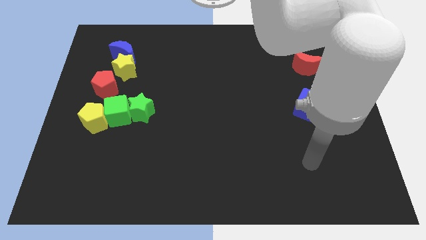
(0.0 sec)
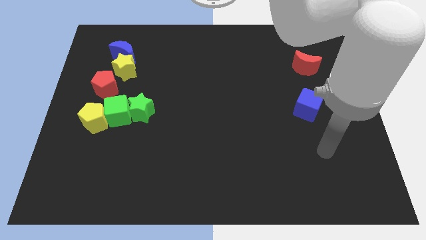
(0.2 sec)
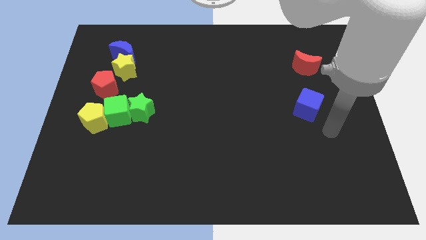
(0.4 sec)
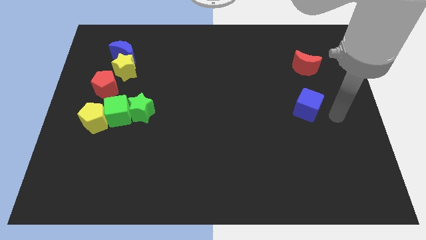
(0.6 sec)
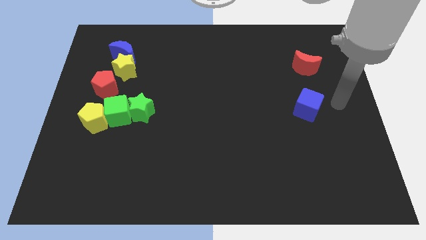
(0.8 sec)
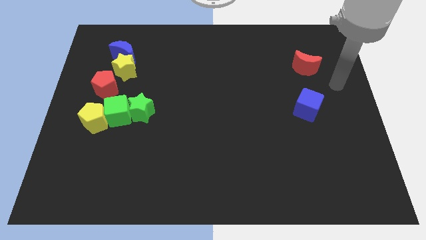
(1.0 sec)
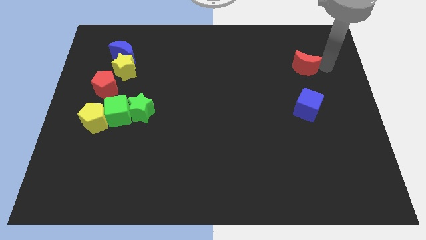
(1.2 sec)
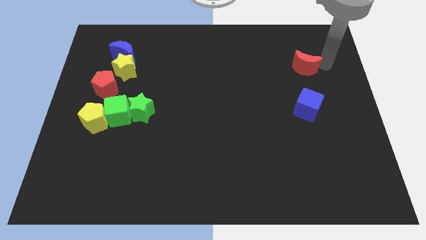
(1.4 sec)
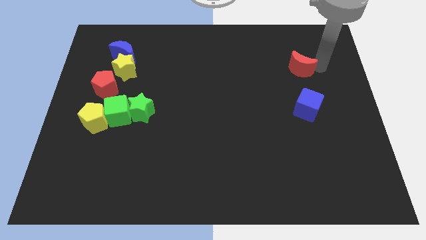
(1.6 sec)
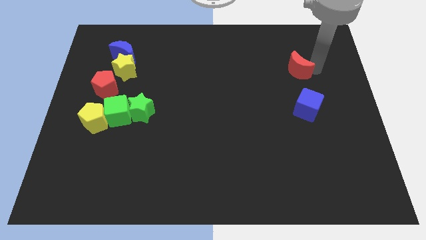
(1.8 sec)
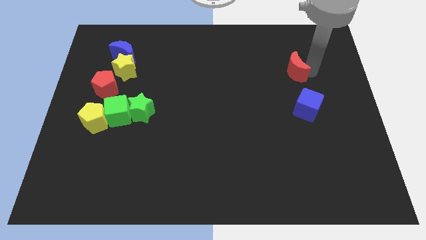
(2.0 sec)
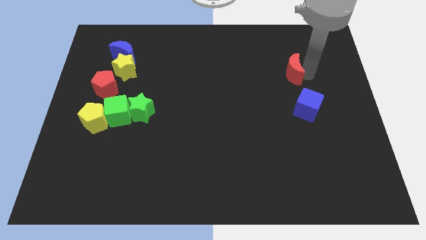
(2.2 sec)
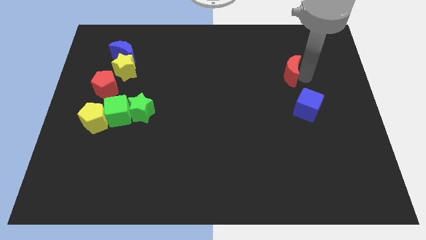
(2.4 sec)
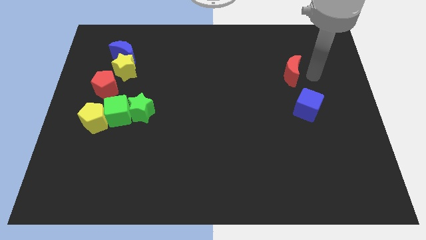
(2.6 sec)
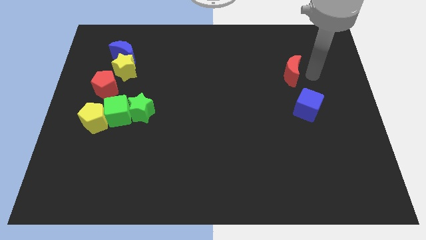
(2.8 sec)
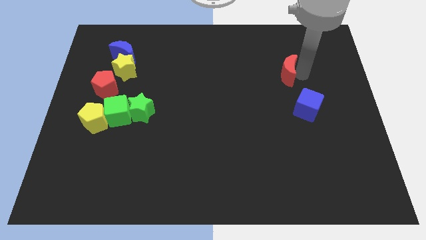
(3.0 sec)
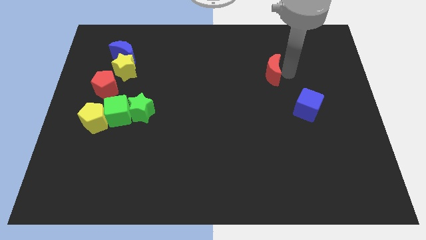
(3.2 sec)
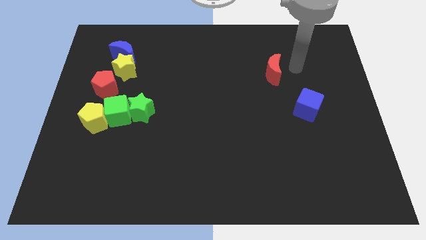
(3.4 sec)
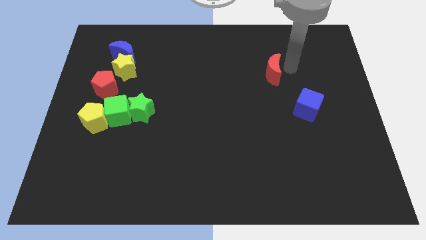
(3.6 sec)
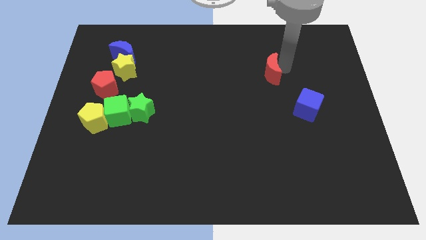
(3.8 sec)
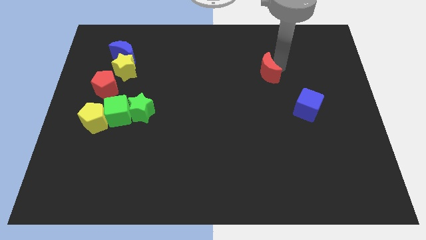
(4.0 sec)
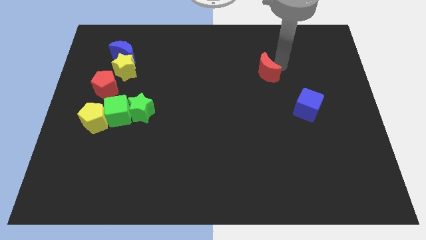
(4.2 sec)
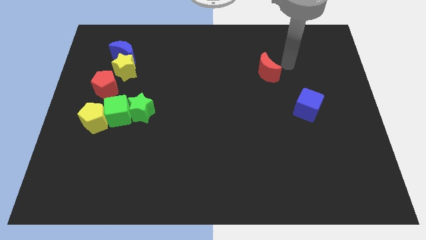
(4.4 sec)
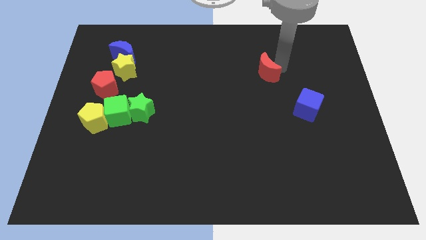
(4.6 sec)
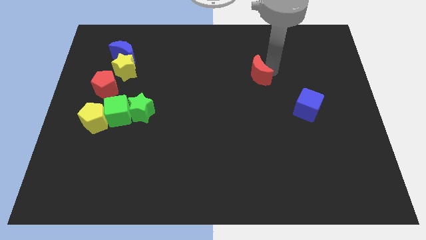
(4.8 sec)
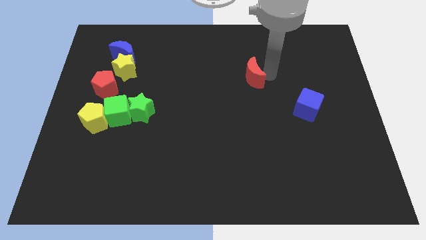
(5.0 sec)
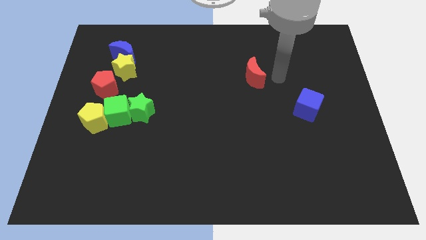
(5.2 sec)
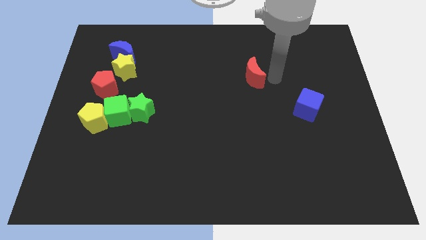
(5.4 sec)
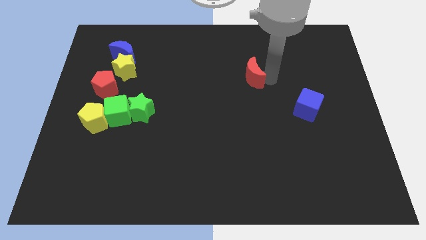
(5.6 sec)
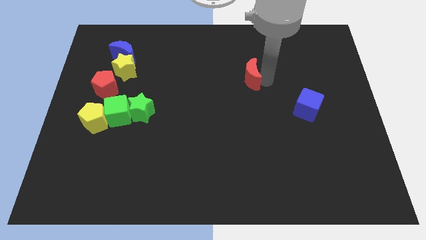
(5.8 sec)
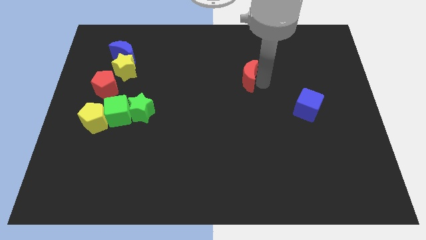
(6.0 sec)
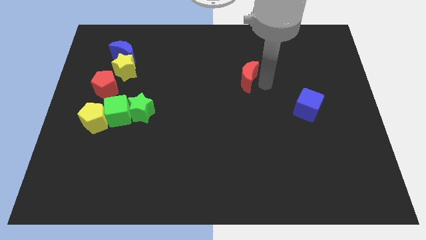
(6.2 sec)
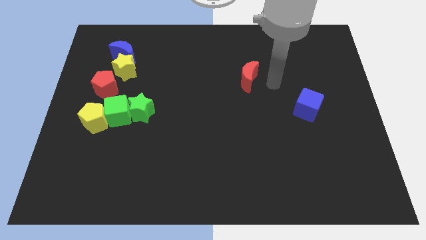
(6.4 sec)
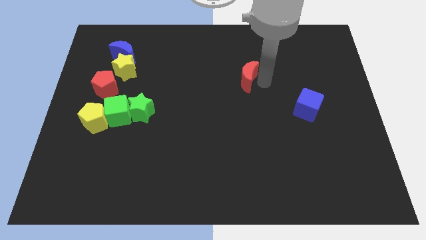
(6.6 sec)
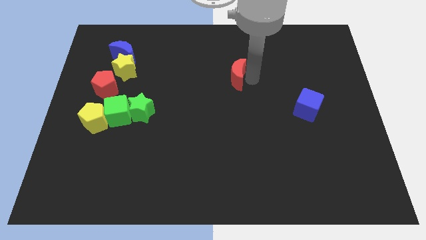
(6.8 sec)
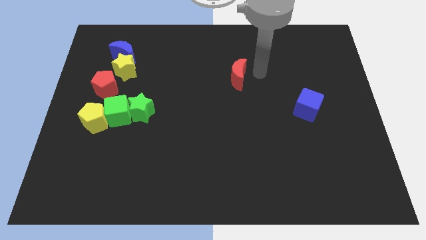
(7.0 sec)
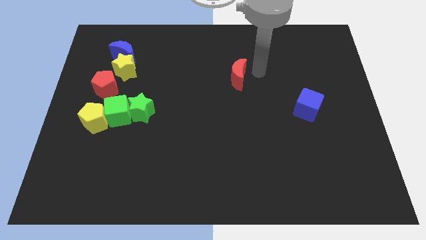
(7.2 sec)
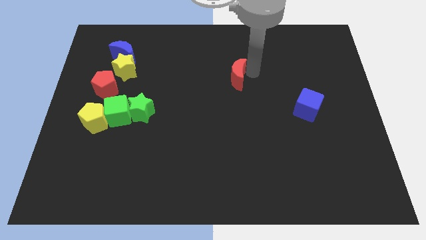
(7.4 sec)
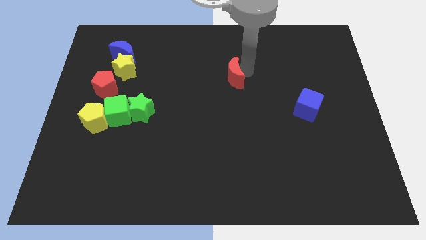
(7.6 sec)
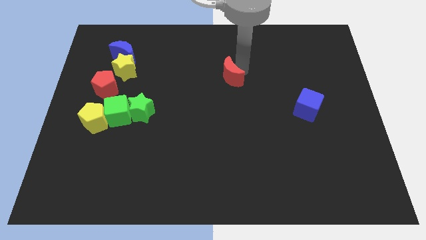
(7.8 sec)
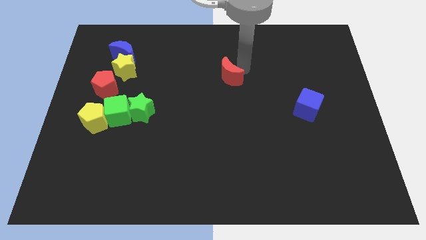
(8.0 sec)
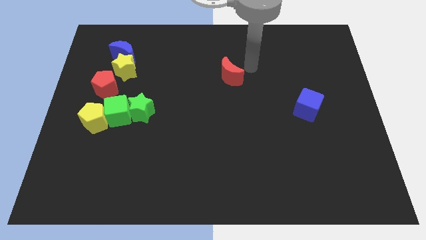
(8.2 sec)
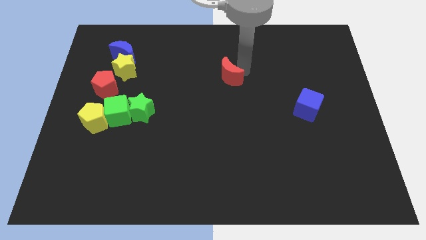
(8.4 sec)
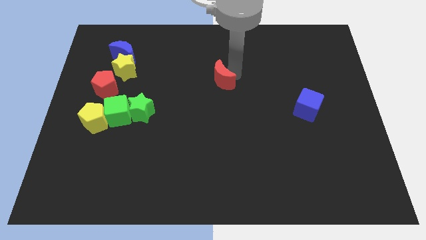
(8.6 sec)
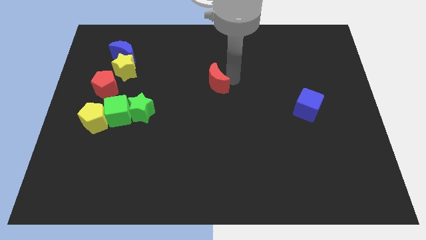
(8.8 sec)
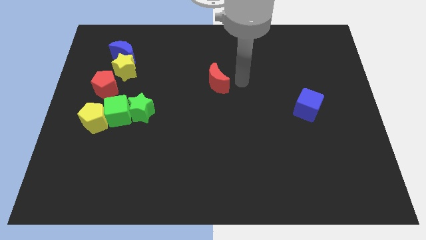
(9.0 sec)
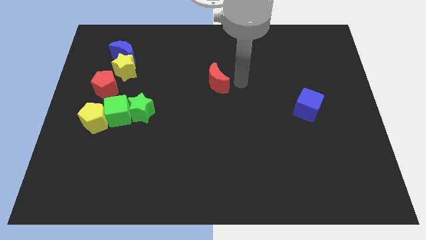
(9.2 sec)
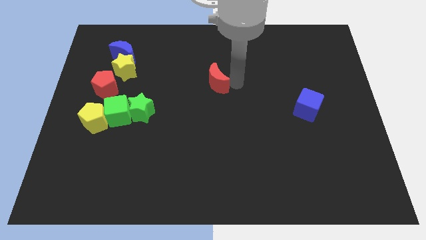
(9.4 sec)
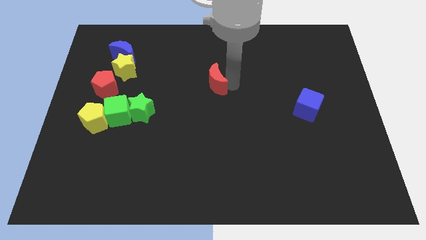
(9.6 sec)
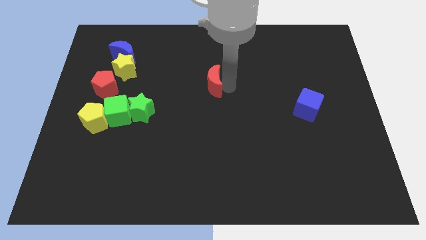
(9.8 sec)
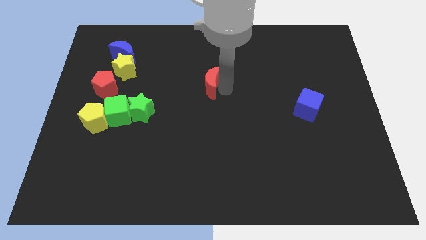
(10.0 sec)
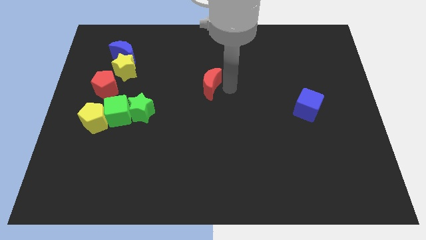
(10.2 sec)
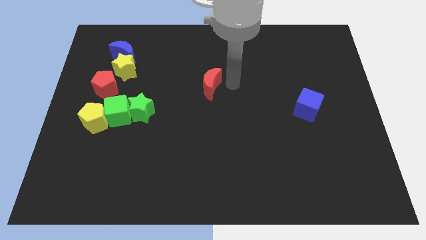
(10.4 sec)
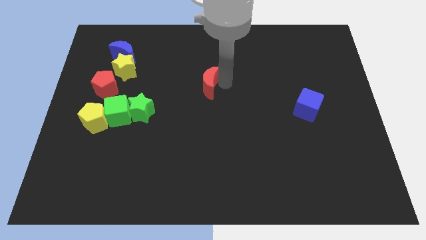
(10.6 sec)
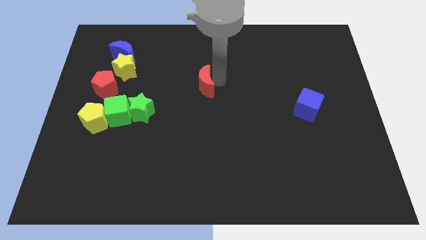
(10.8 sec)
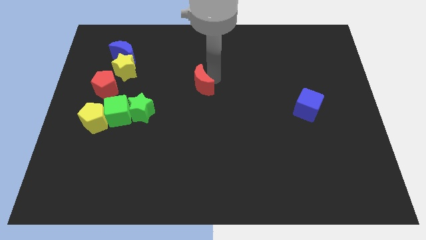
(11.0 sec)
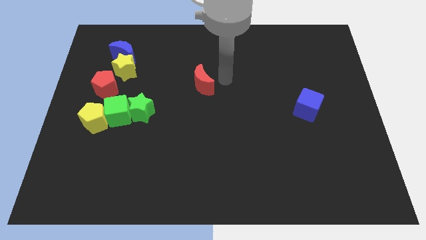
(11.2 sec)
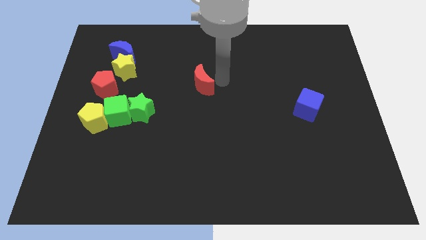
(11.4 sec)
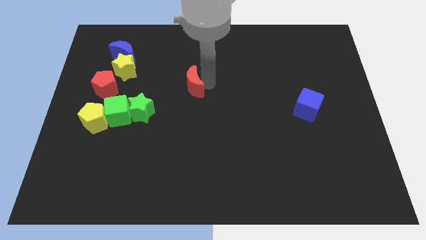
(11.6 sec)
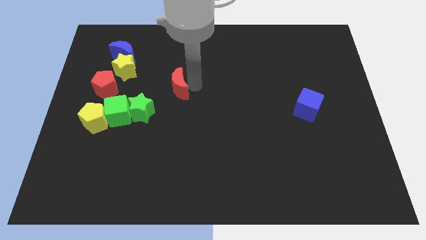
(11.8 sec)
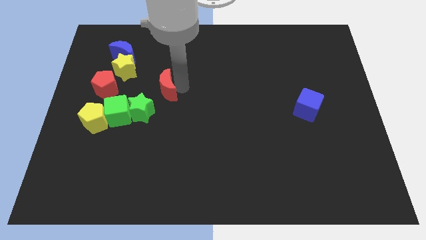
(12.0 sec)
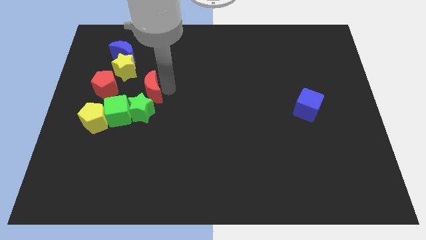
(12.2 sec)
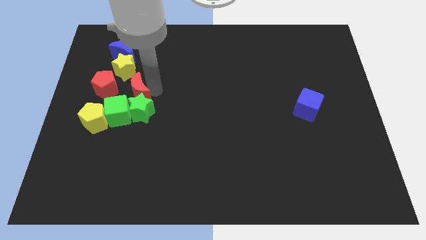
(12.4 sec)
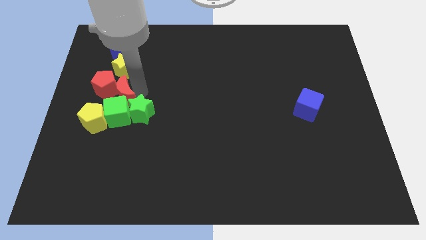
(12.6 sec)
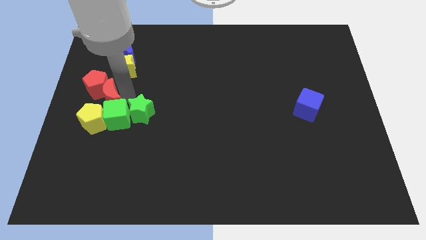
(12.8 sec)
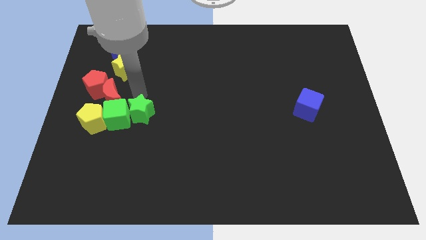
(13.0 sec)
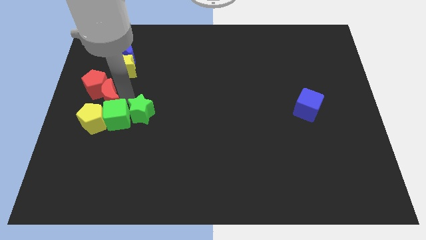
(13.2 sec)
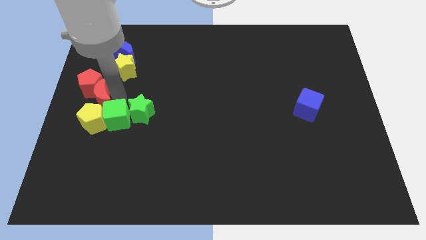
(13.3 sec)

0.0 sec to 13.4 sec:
slide the red moon to the left side of the board
